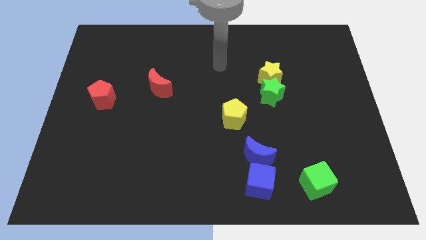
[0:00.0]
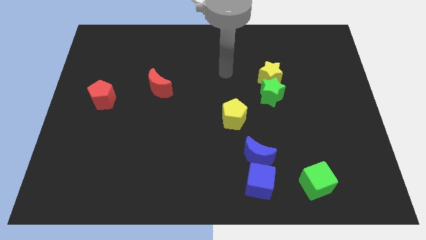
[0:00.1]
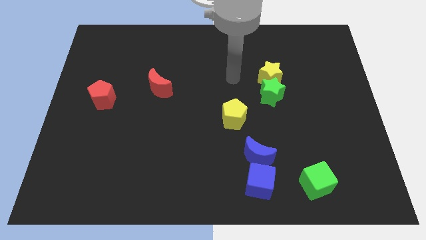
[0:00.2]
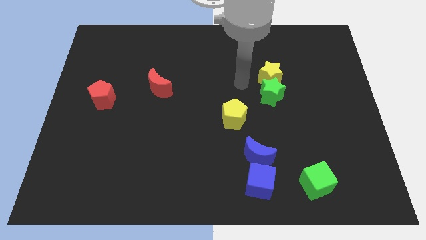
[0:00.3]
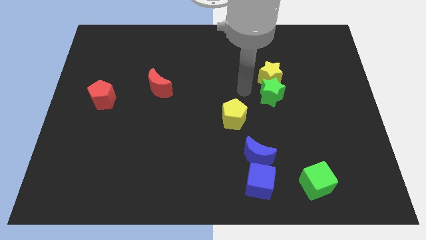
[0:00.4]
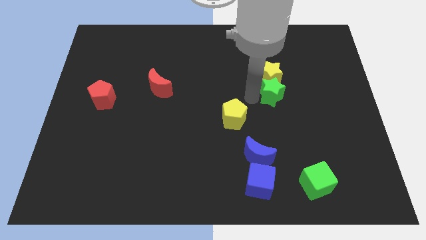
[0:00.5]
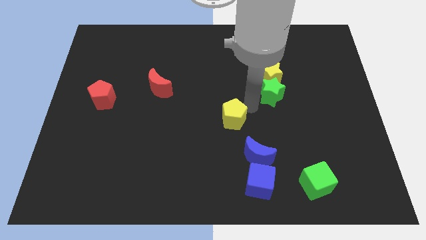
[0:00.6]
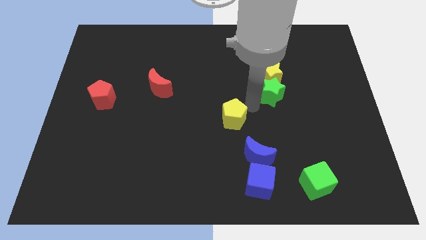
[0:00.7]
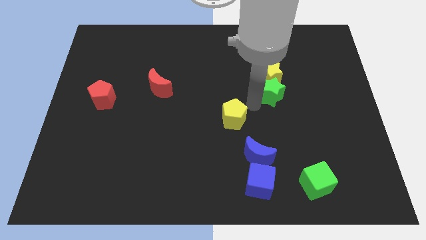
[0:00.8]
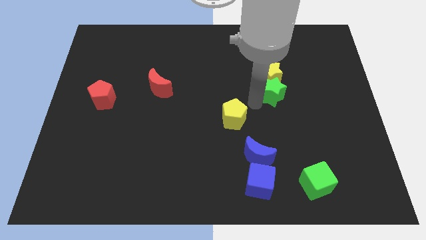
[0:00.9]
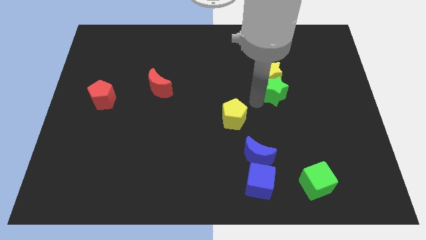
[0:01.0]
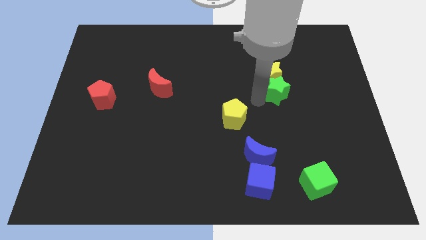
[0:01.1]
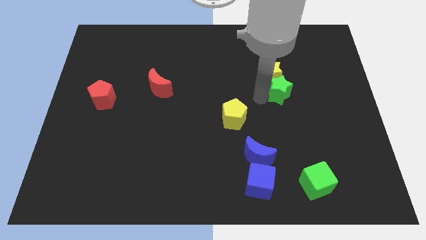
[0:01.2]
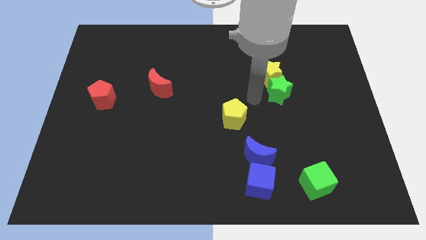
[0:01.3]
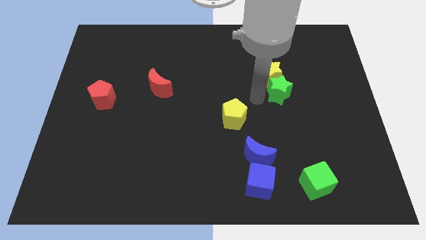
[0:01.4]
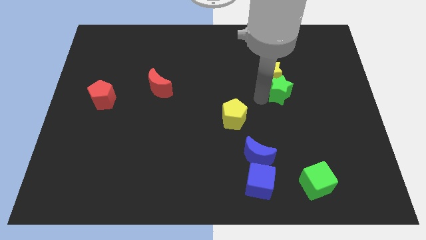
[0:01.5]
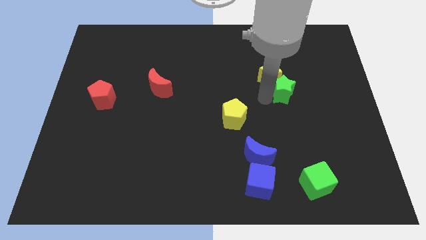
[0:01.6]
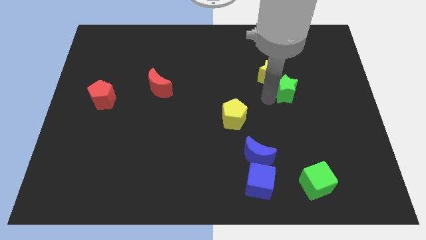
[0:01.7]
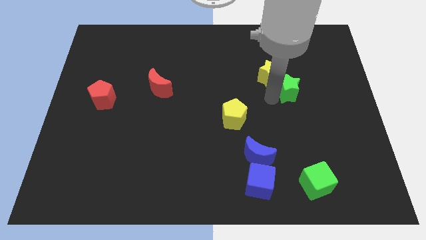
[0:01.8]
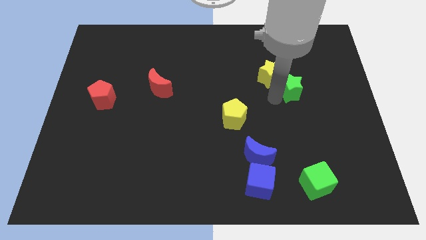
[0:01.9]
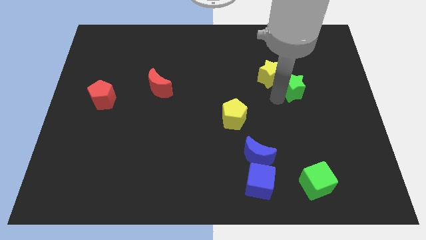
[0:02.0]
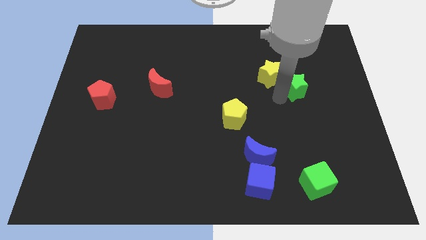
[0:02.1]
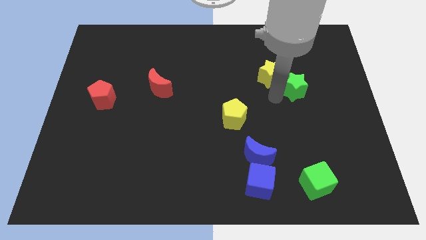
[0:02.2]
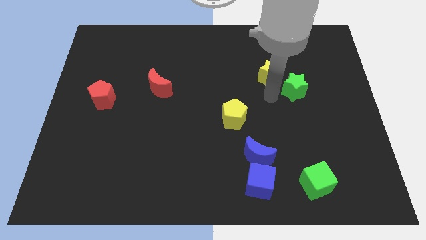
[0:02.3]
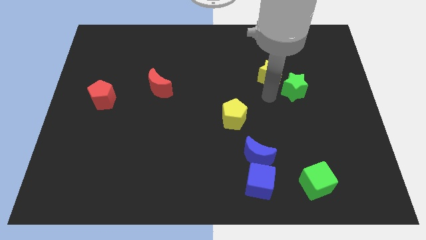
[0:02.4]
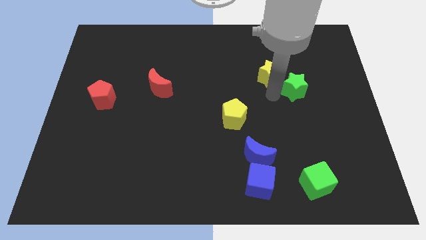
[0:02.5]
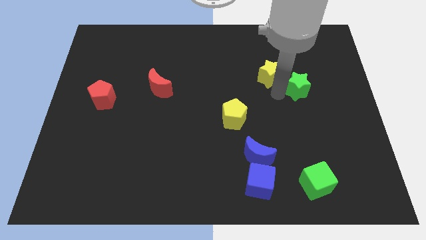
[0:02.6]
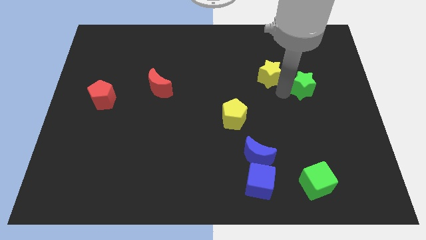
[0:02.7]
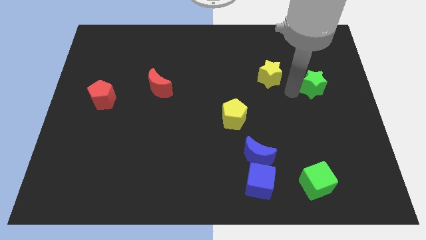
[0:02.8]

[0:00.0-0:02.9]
slide the green star a little bit upwards and right diagonally

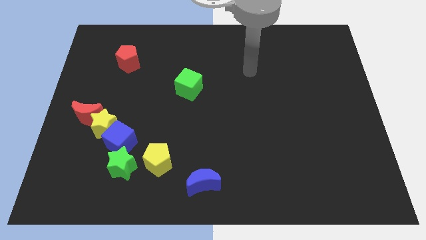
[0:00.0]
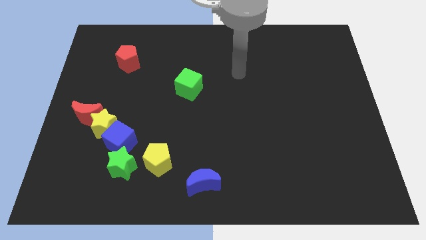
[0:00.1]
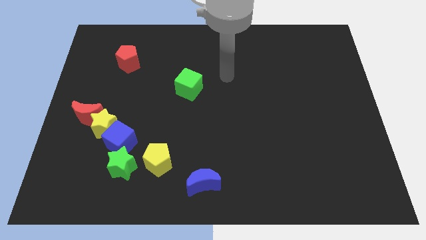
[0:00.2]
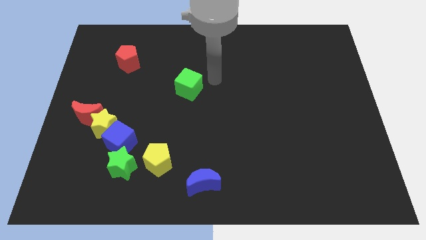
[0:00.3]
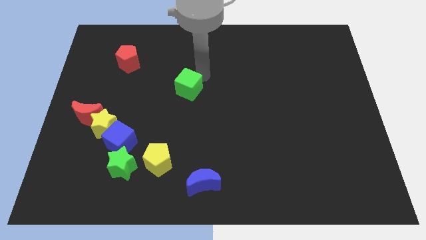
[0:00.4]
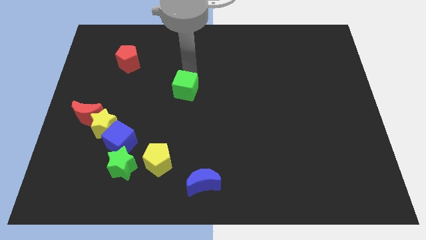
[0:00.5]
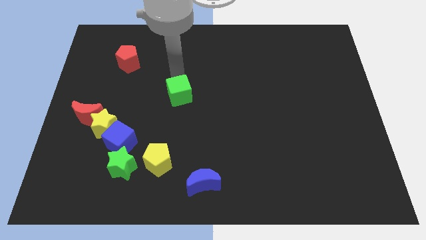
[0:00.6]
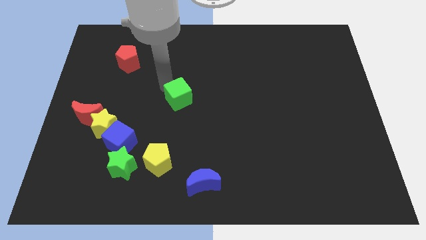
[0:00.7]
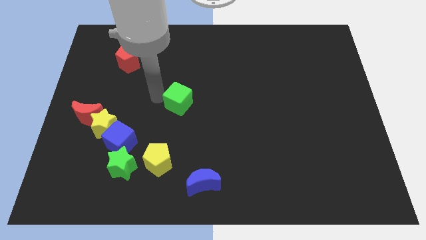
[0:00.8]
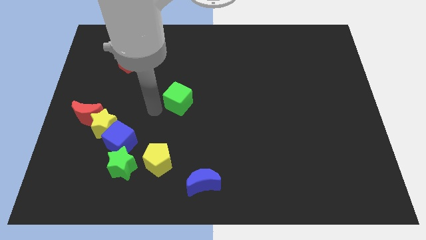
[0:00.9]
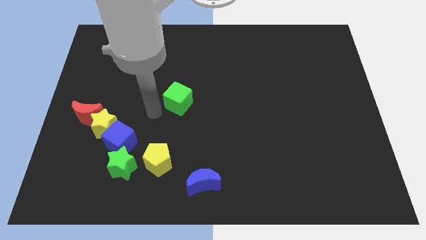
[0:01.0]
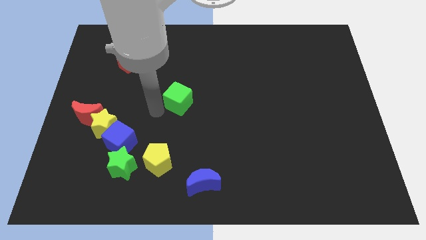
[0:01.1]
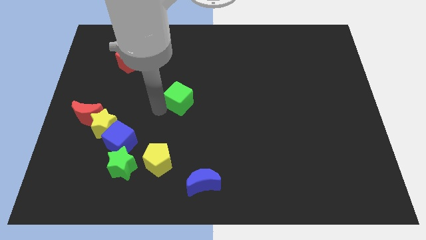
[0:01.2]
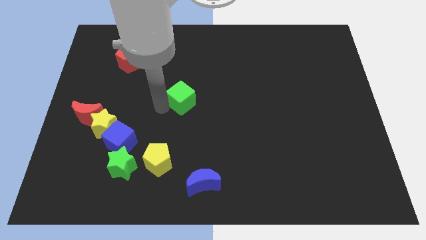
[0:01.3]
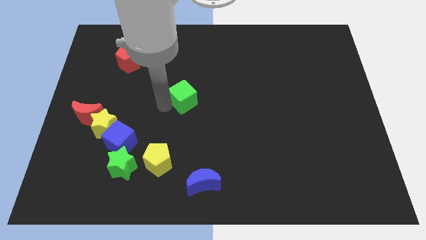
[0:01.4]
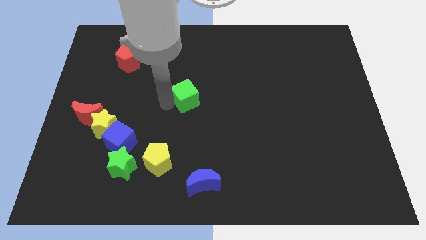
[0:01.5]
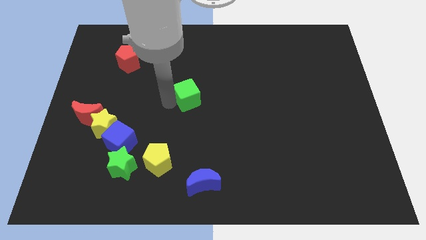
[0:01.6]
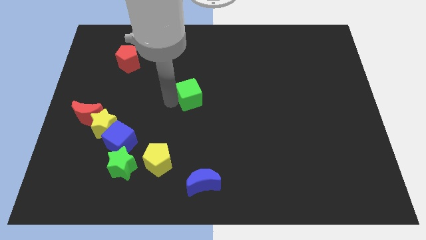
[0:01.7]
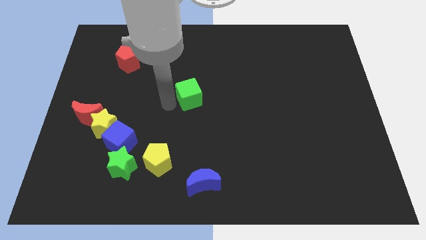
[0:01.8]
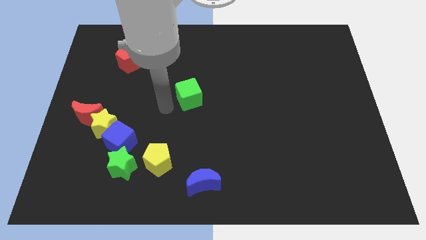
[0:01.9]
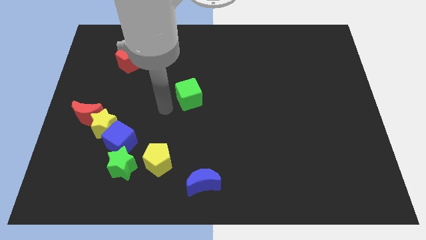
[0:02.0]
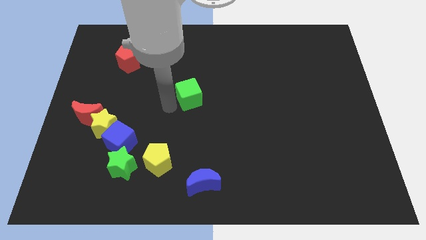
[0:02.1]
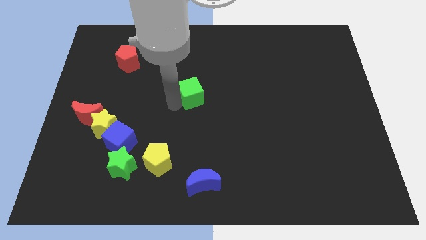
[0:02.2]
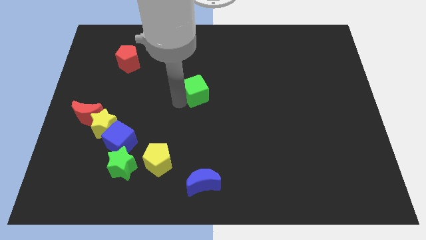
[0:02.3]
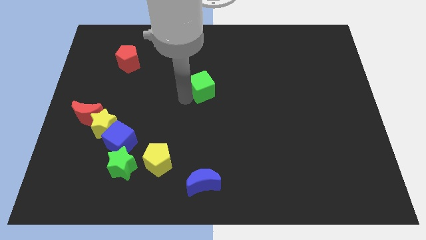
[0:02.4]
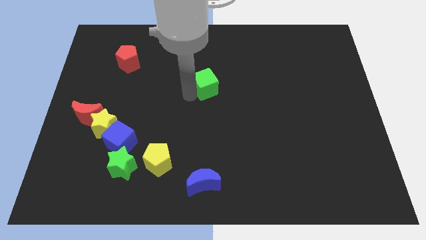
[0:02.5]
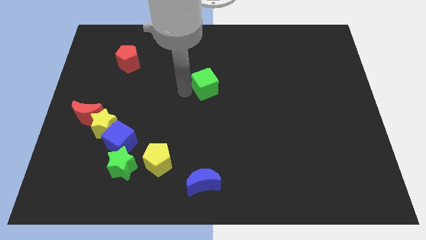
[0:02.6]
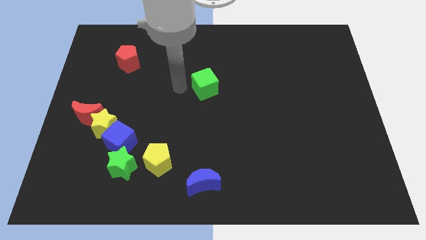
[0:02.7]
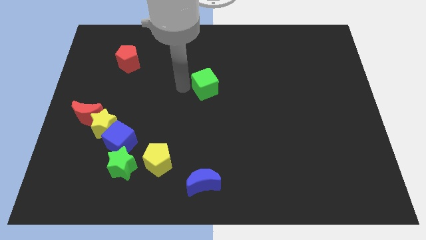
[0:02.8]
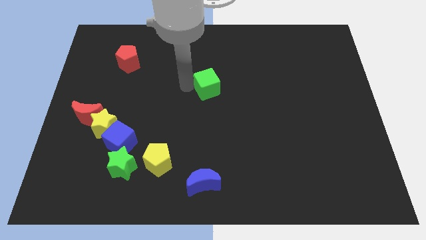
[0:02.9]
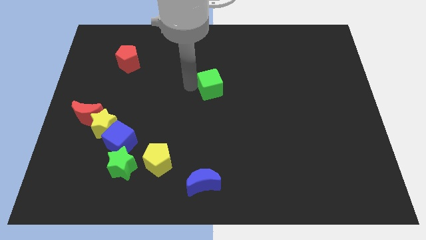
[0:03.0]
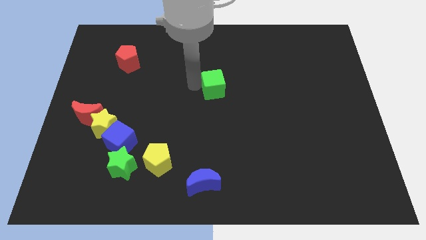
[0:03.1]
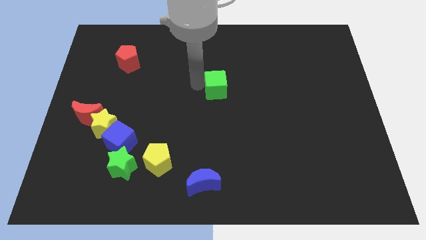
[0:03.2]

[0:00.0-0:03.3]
slightly push the green cube right

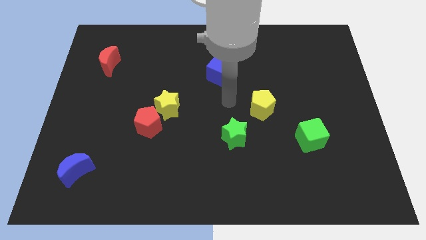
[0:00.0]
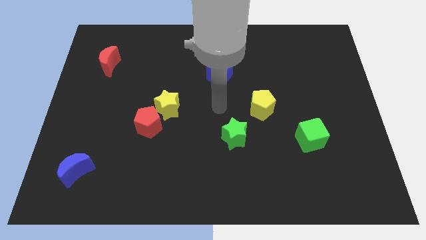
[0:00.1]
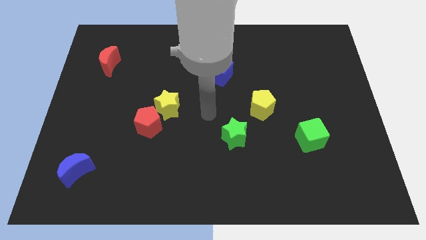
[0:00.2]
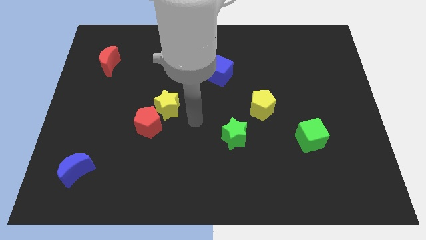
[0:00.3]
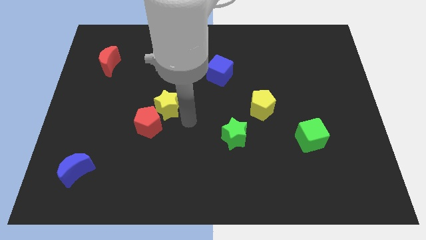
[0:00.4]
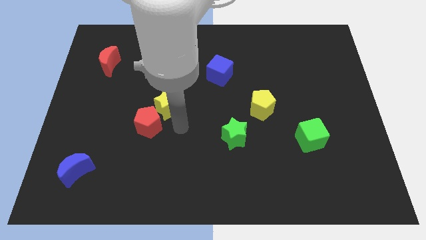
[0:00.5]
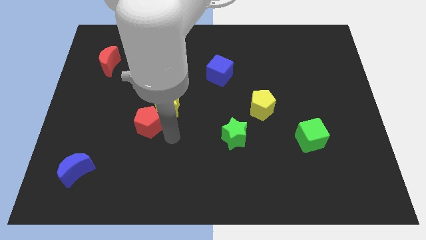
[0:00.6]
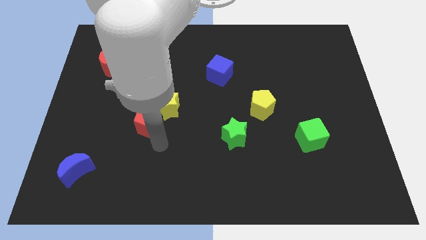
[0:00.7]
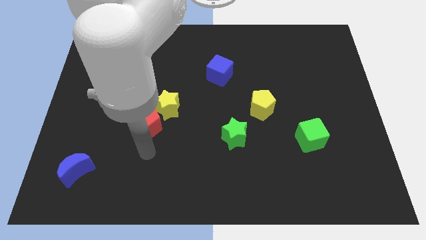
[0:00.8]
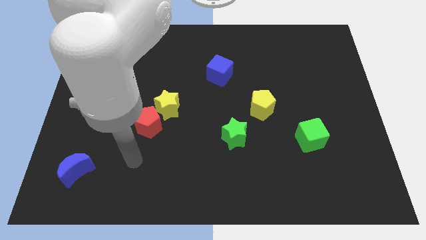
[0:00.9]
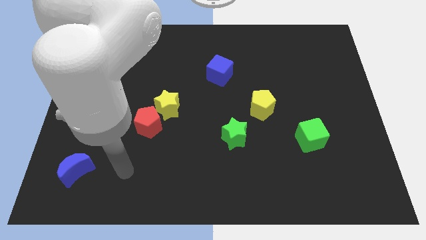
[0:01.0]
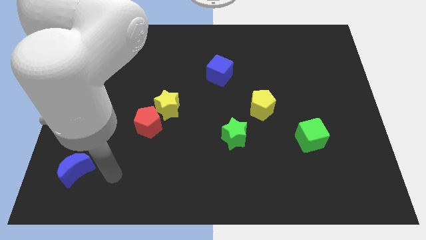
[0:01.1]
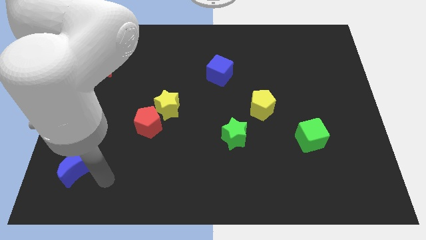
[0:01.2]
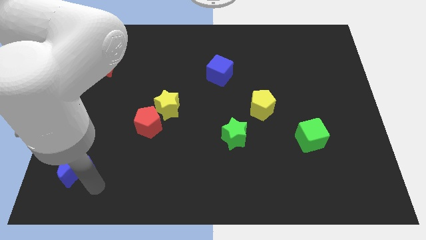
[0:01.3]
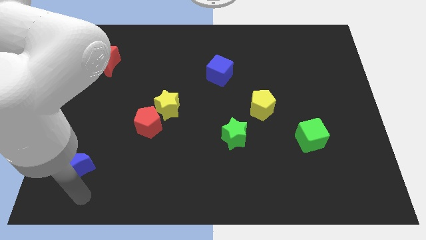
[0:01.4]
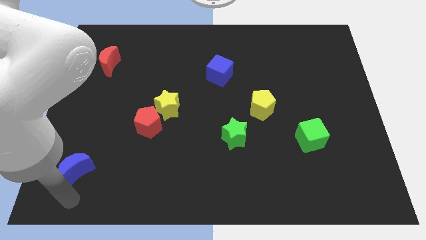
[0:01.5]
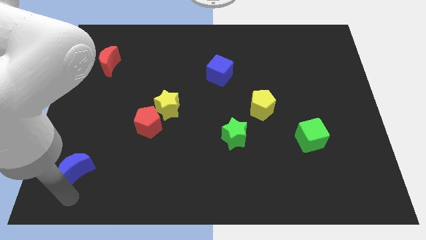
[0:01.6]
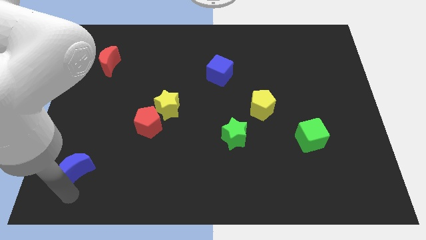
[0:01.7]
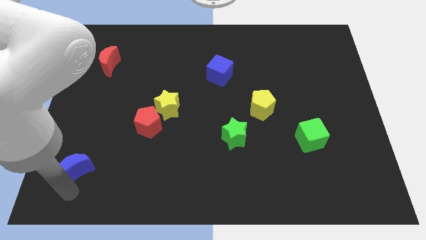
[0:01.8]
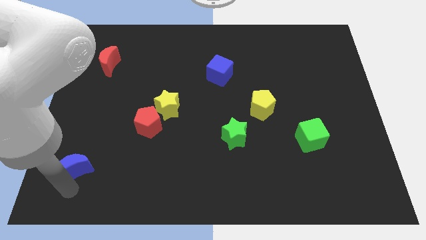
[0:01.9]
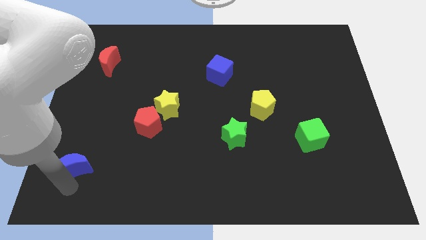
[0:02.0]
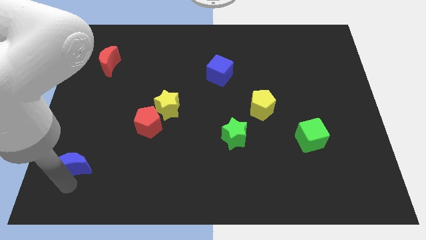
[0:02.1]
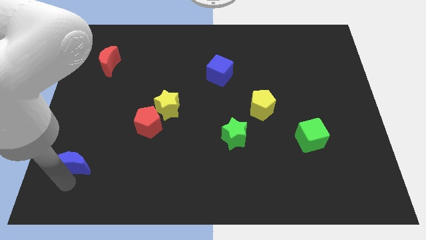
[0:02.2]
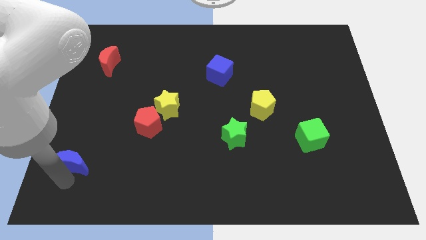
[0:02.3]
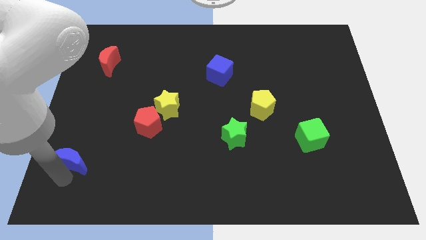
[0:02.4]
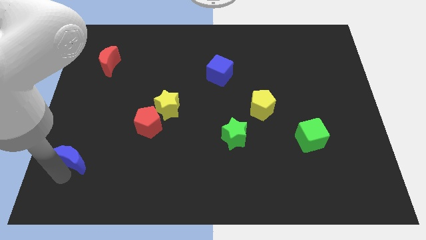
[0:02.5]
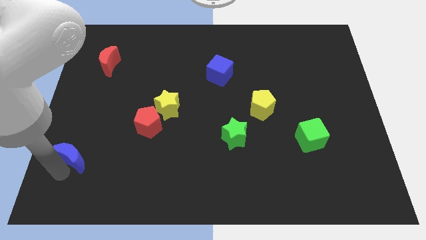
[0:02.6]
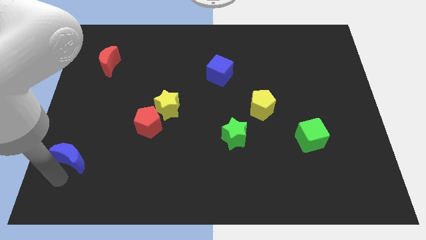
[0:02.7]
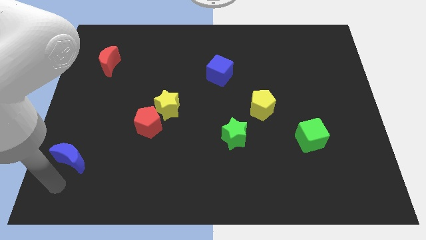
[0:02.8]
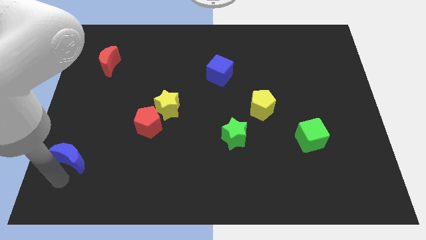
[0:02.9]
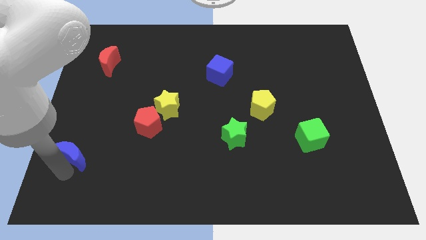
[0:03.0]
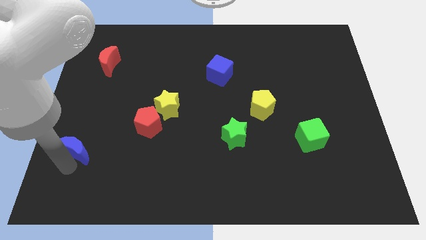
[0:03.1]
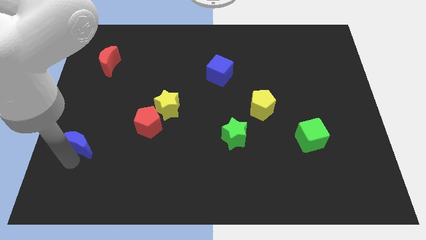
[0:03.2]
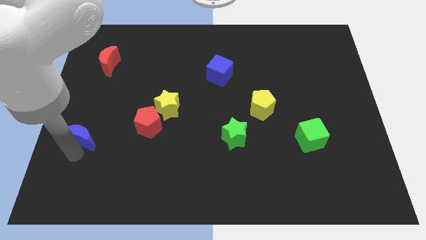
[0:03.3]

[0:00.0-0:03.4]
slightly move the blue moon upwards
